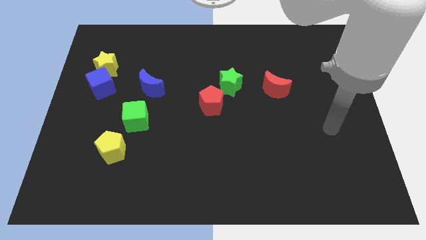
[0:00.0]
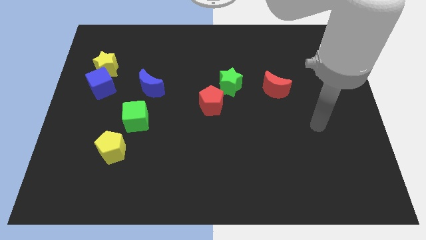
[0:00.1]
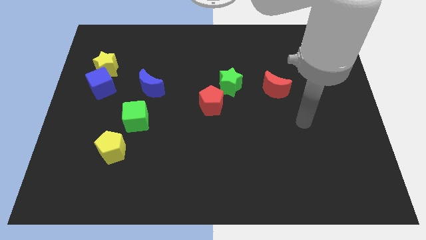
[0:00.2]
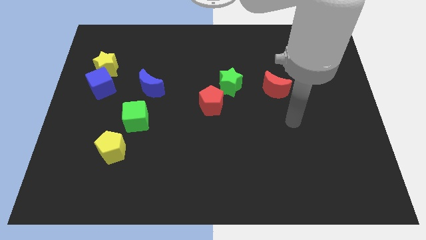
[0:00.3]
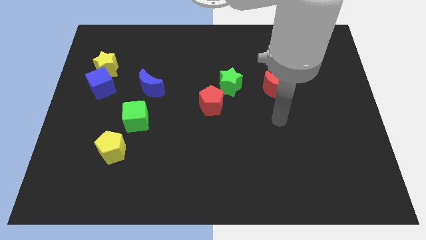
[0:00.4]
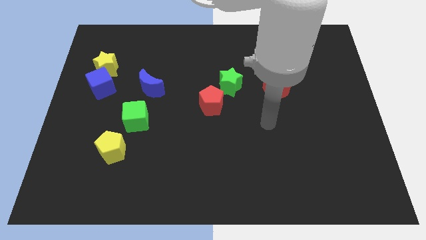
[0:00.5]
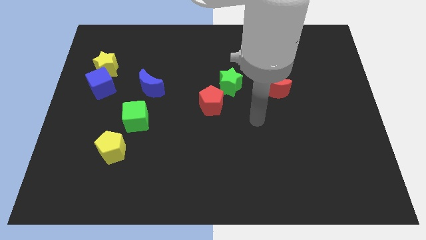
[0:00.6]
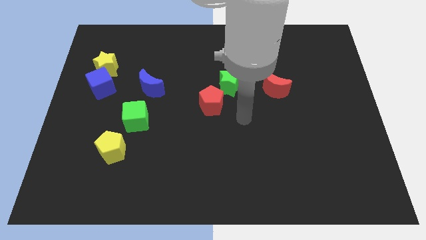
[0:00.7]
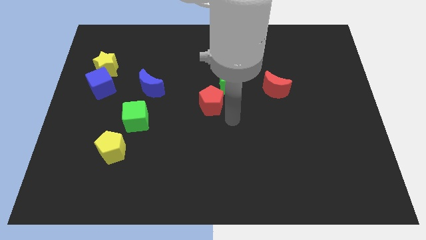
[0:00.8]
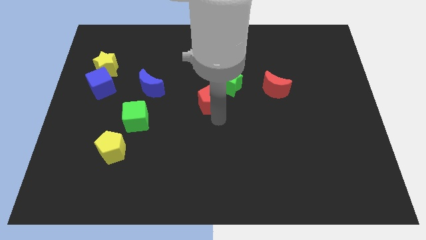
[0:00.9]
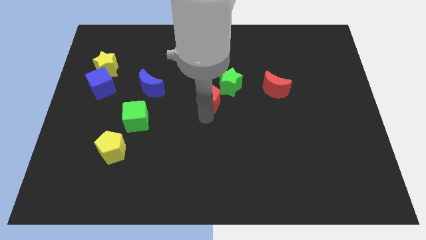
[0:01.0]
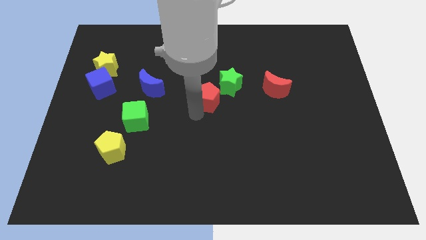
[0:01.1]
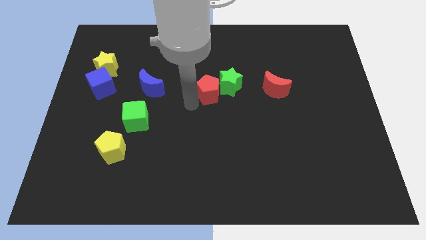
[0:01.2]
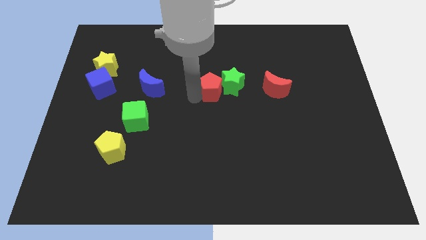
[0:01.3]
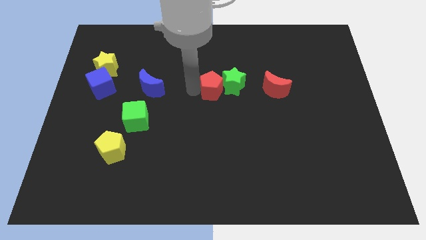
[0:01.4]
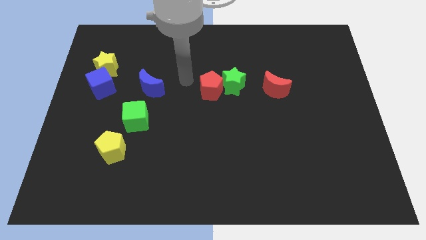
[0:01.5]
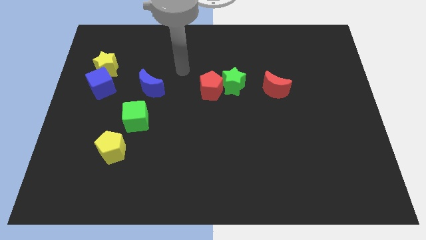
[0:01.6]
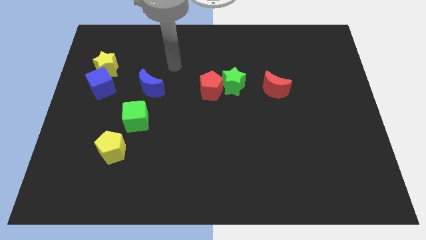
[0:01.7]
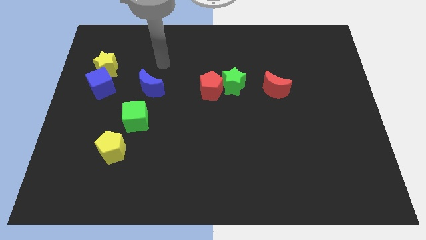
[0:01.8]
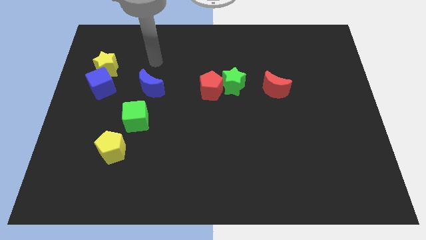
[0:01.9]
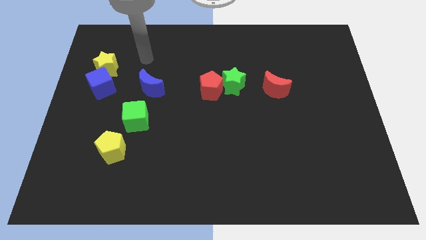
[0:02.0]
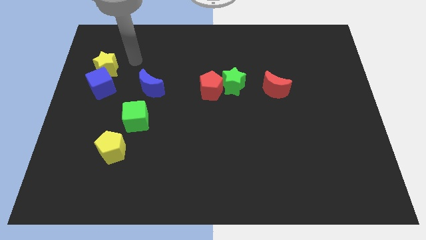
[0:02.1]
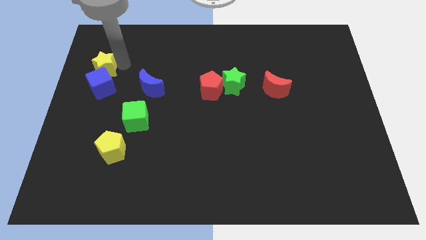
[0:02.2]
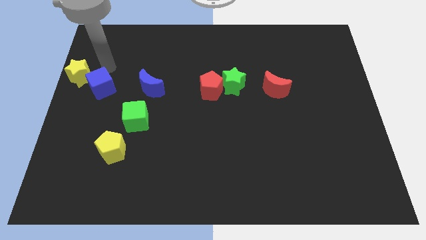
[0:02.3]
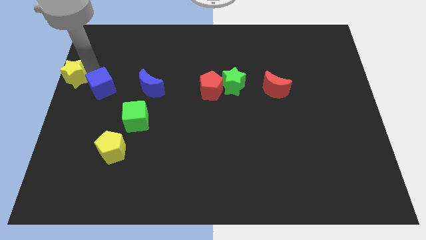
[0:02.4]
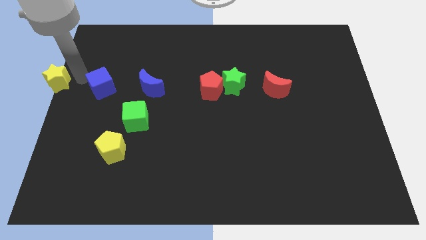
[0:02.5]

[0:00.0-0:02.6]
move the blue cube away from the yellow star

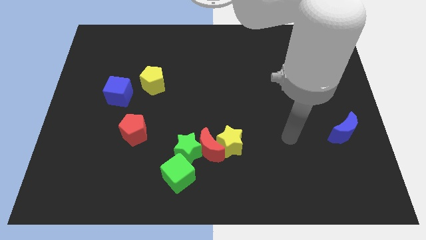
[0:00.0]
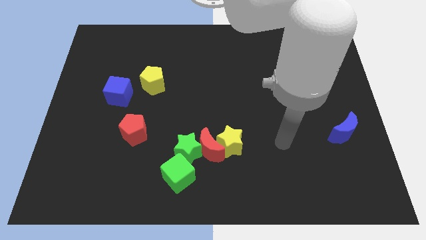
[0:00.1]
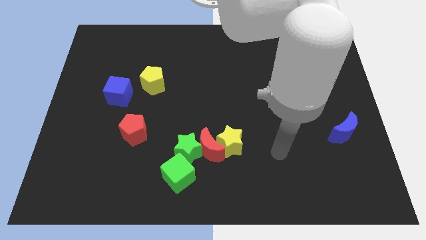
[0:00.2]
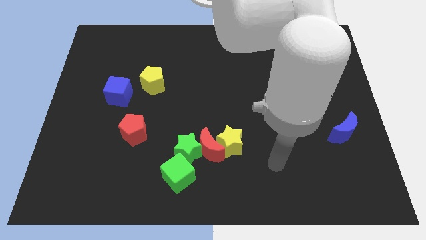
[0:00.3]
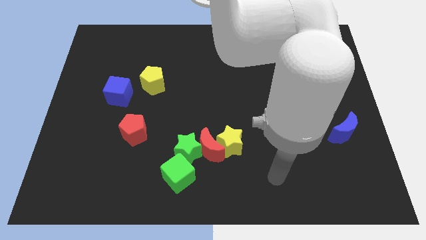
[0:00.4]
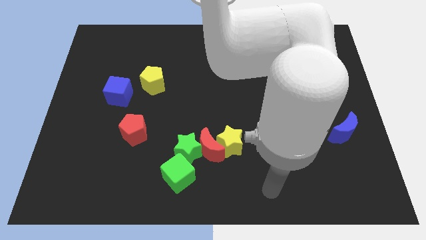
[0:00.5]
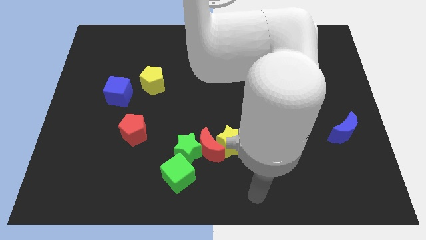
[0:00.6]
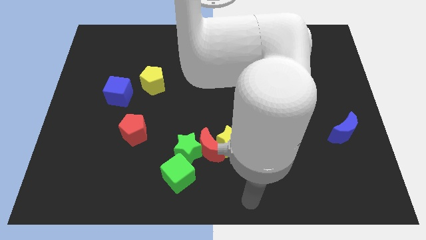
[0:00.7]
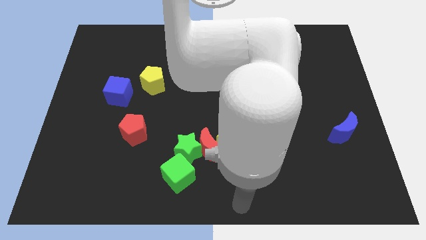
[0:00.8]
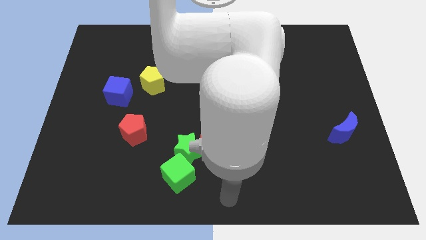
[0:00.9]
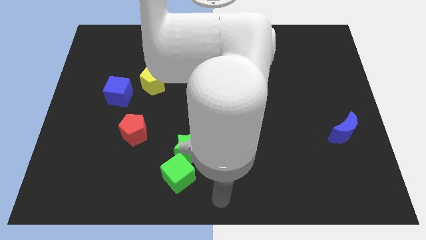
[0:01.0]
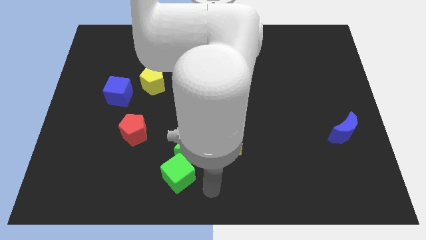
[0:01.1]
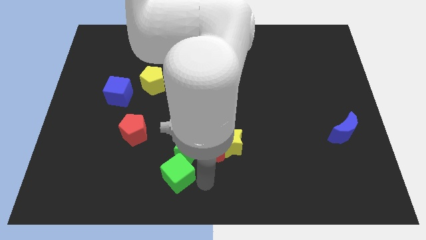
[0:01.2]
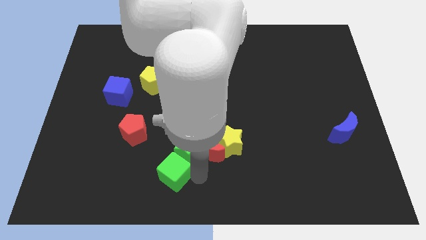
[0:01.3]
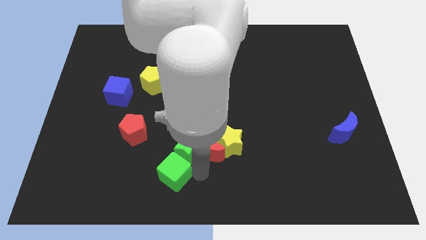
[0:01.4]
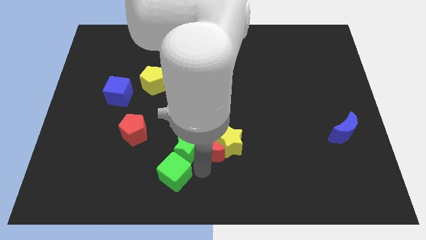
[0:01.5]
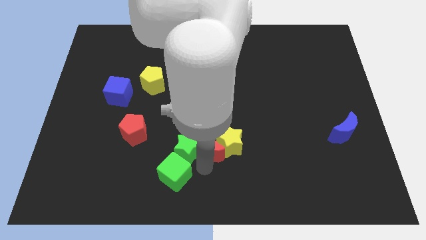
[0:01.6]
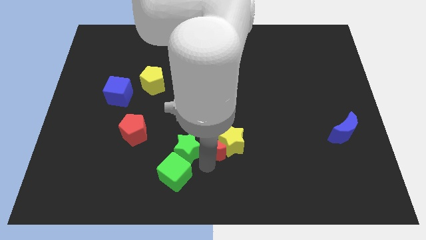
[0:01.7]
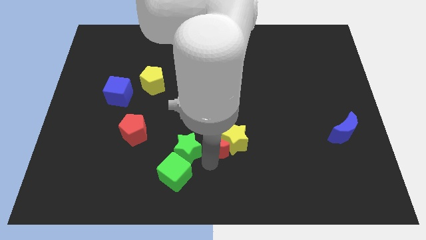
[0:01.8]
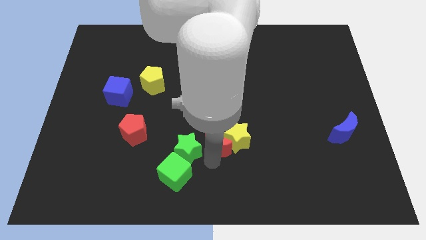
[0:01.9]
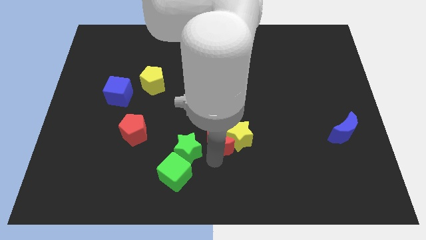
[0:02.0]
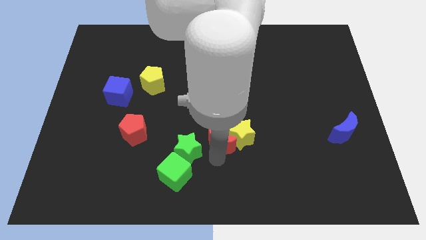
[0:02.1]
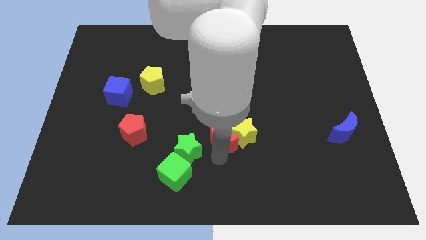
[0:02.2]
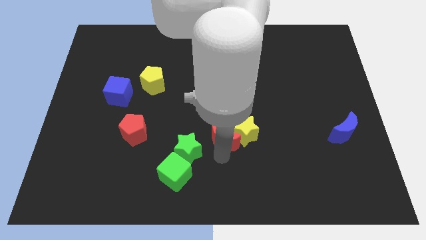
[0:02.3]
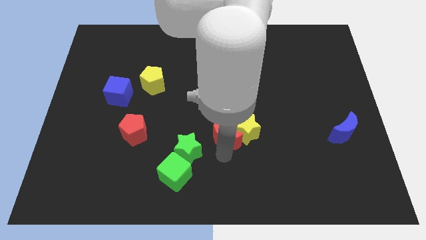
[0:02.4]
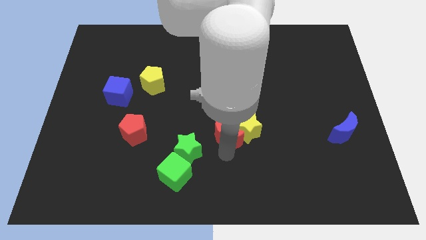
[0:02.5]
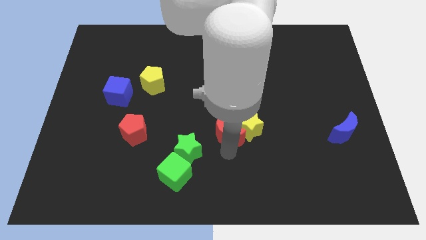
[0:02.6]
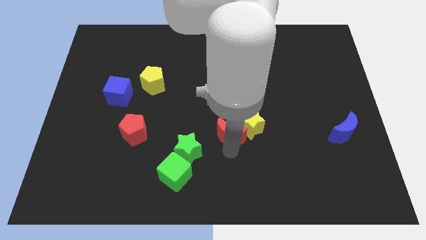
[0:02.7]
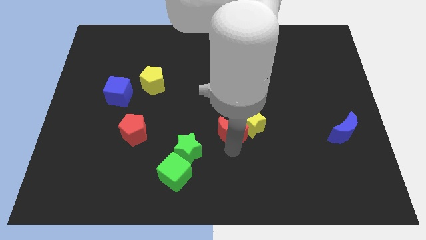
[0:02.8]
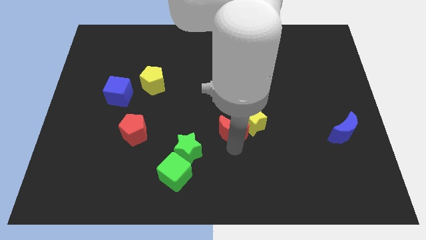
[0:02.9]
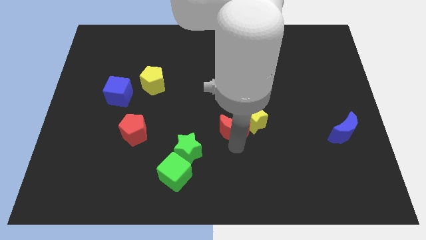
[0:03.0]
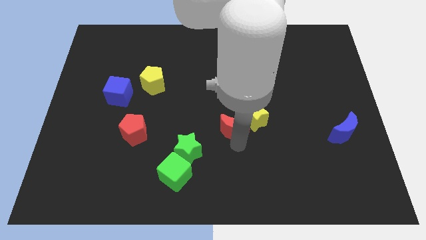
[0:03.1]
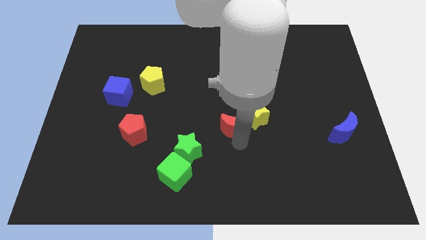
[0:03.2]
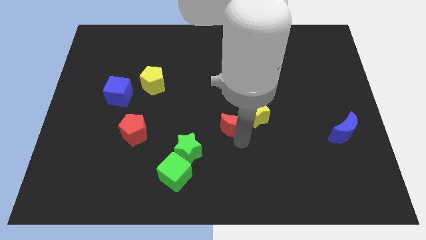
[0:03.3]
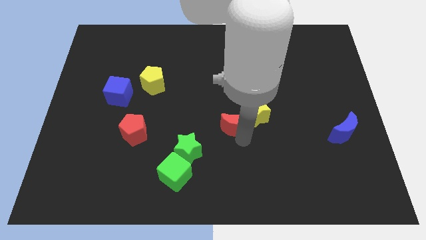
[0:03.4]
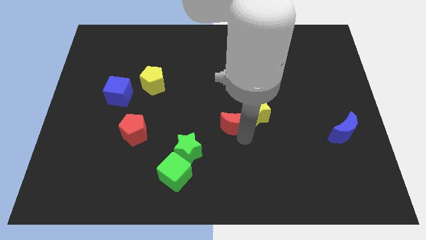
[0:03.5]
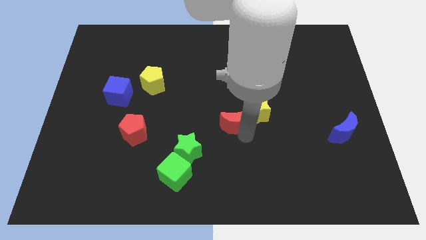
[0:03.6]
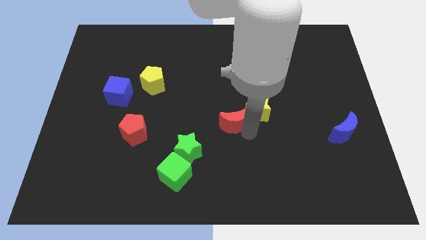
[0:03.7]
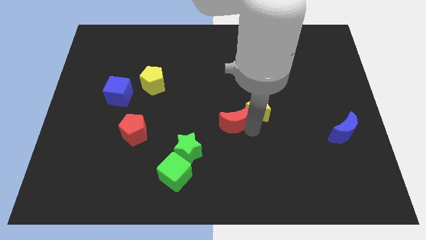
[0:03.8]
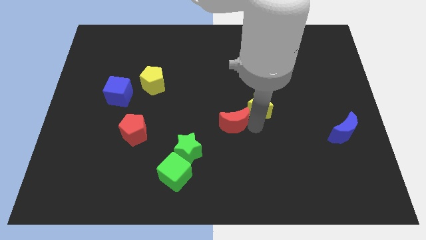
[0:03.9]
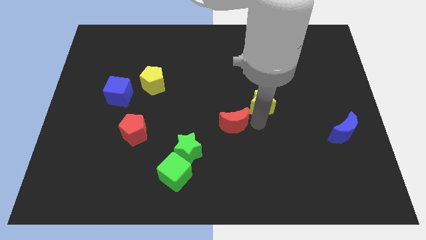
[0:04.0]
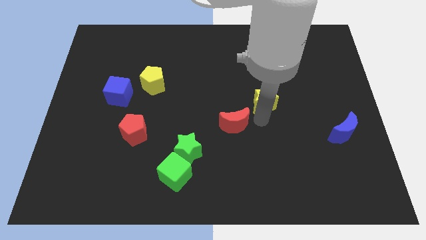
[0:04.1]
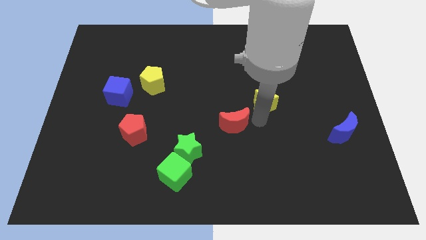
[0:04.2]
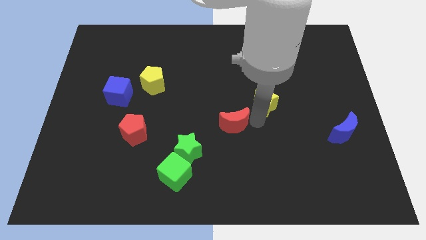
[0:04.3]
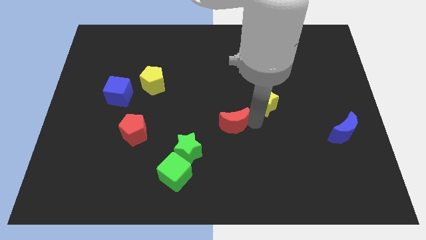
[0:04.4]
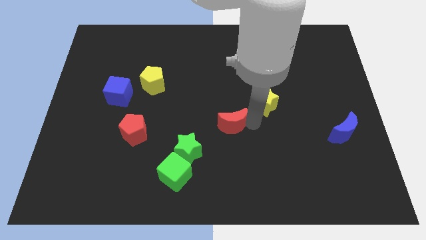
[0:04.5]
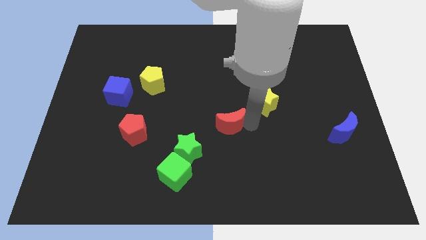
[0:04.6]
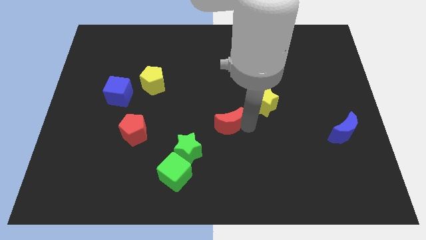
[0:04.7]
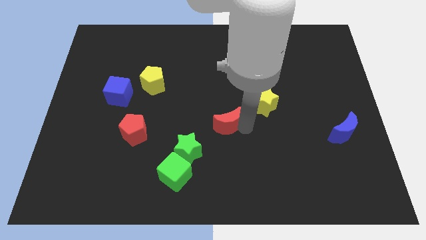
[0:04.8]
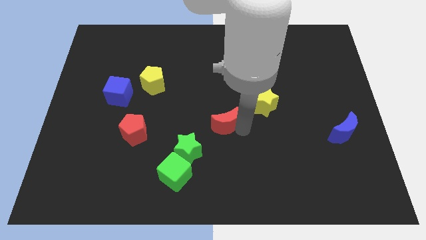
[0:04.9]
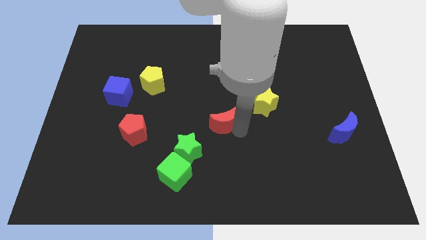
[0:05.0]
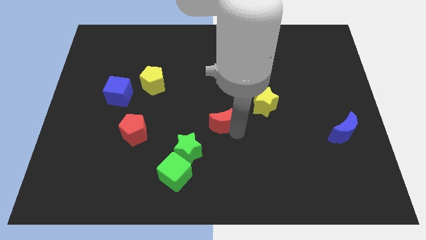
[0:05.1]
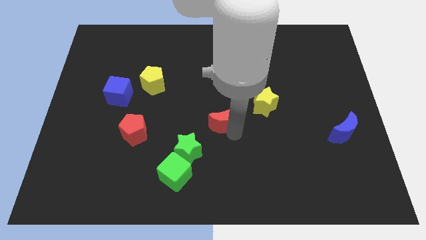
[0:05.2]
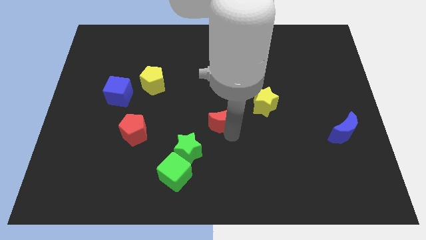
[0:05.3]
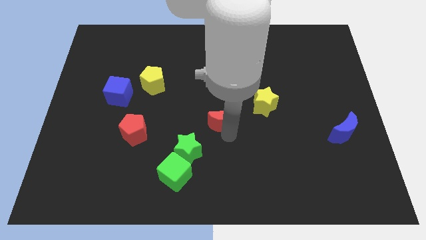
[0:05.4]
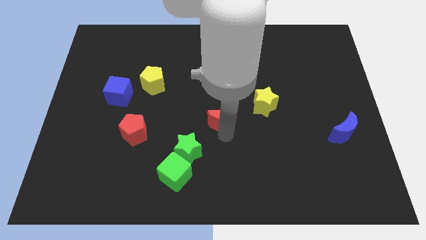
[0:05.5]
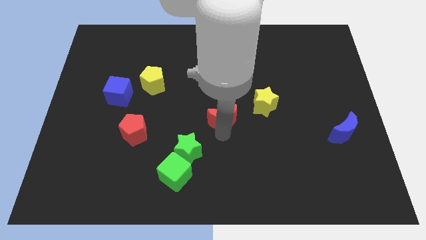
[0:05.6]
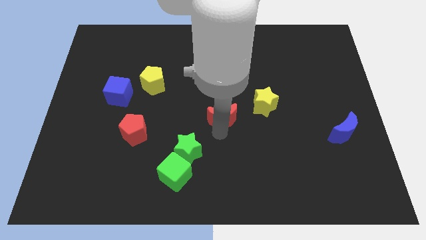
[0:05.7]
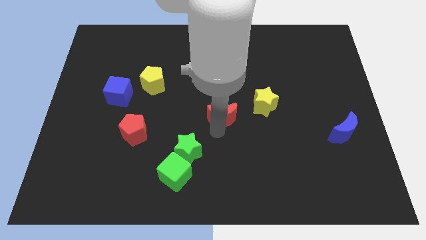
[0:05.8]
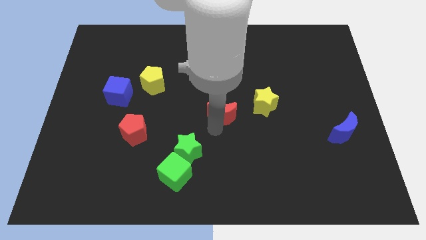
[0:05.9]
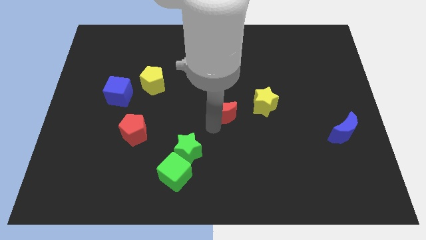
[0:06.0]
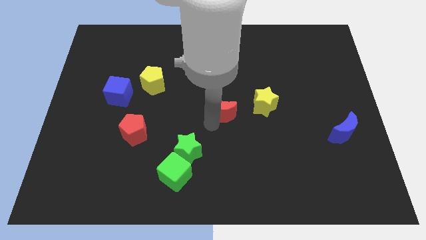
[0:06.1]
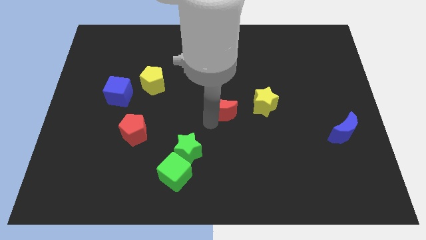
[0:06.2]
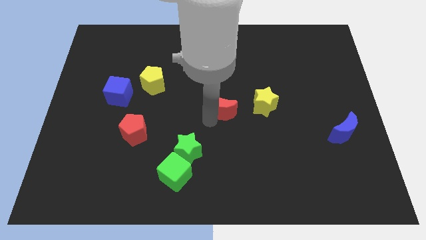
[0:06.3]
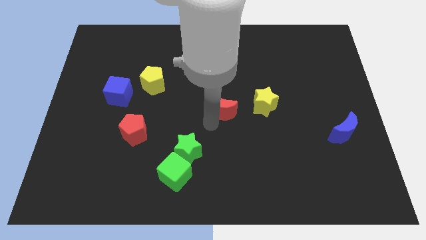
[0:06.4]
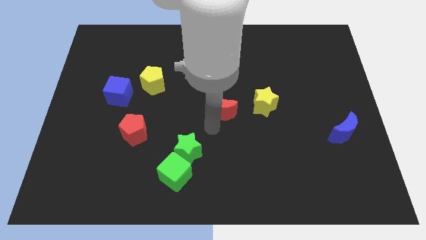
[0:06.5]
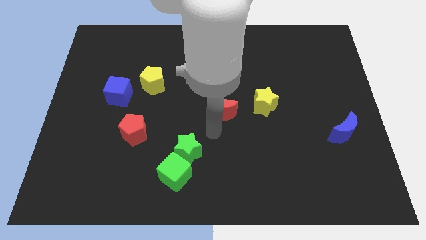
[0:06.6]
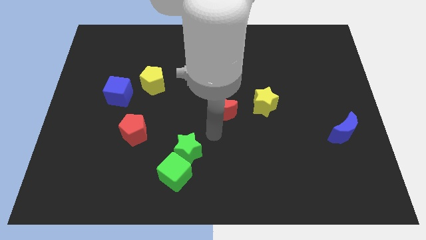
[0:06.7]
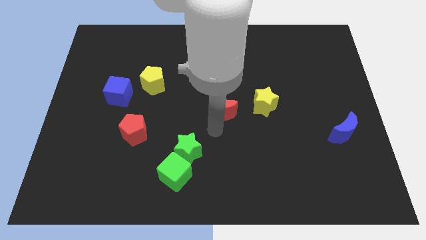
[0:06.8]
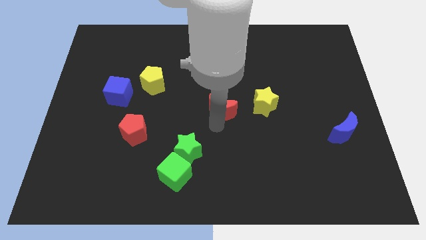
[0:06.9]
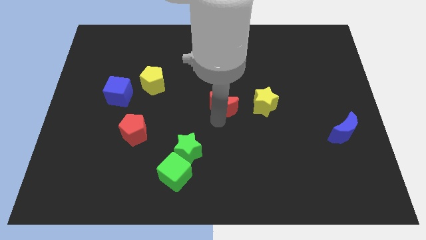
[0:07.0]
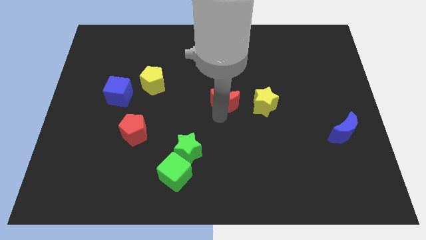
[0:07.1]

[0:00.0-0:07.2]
separate the red moon from the group
